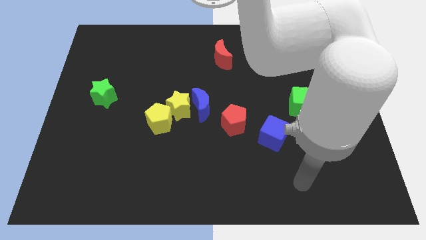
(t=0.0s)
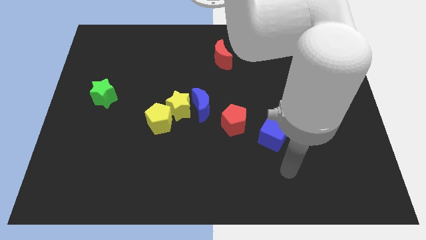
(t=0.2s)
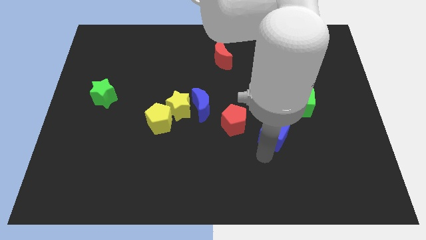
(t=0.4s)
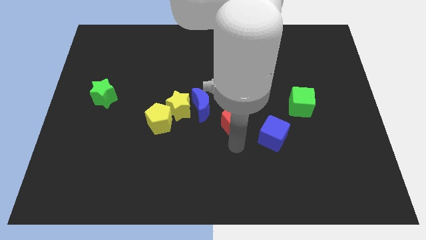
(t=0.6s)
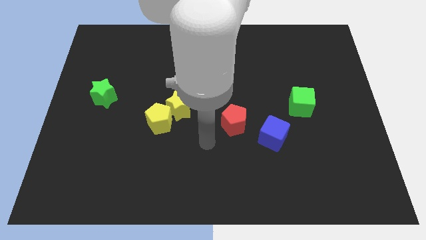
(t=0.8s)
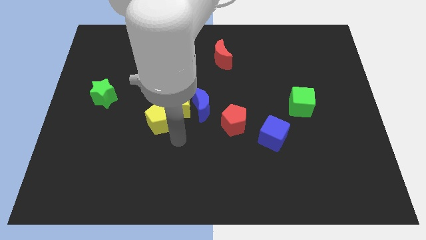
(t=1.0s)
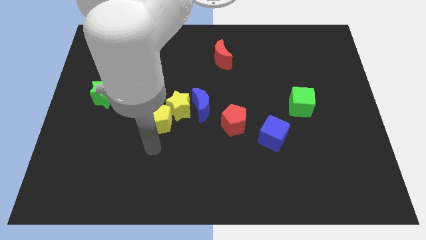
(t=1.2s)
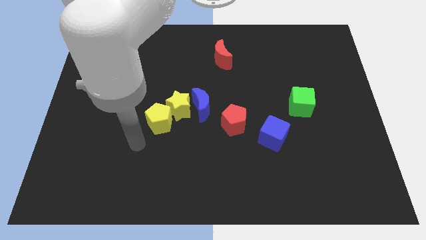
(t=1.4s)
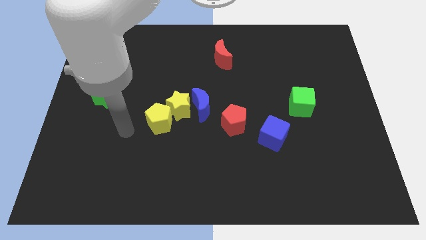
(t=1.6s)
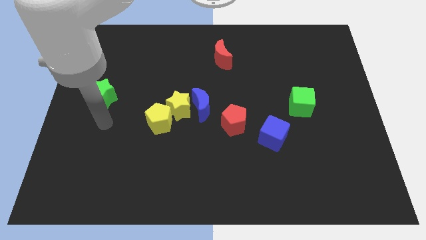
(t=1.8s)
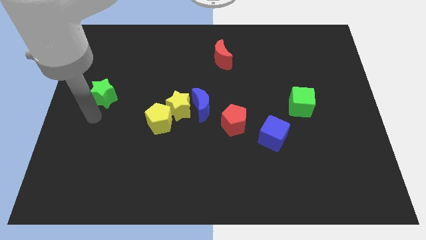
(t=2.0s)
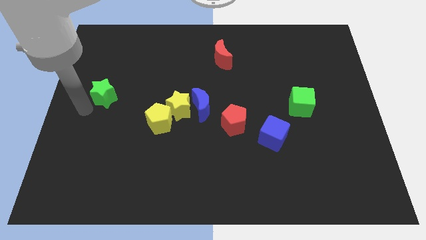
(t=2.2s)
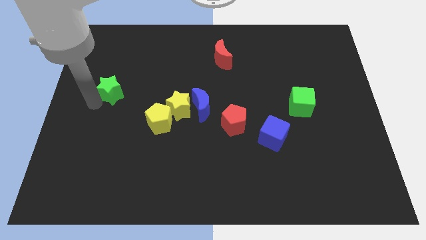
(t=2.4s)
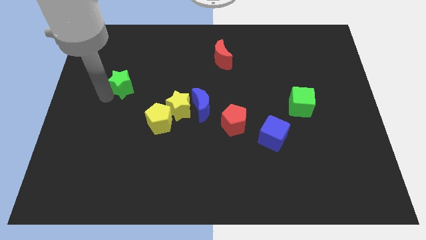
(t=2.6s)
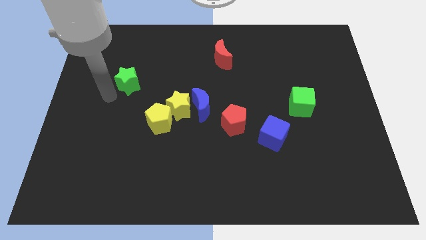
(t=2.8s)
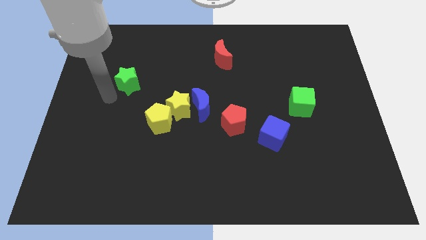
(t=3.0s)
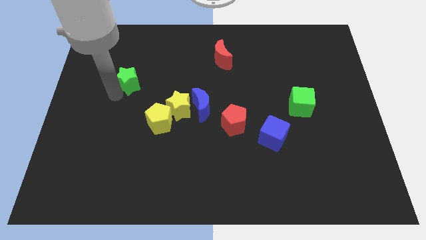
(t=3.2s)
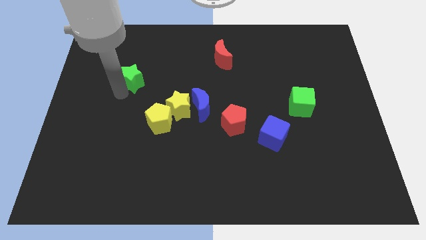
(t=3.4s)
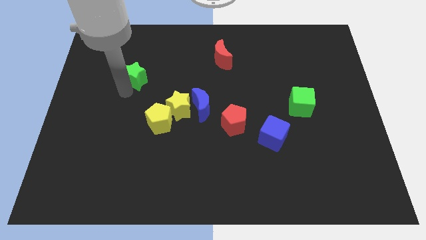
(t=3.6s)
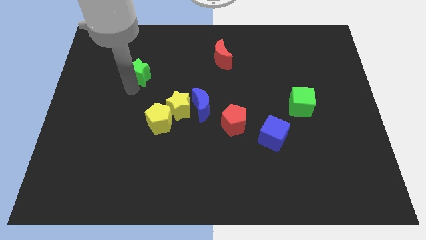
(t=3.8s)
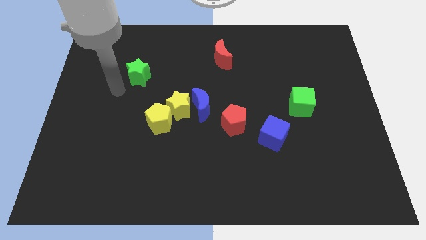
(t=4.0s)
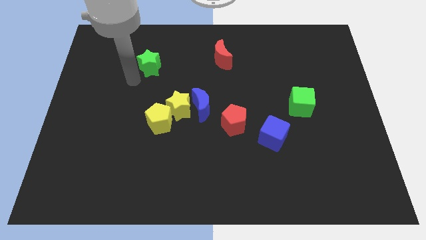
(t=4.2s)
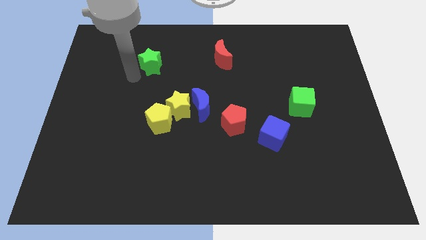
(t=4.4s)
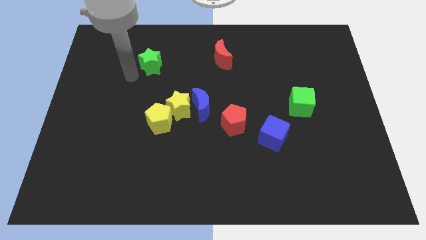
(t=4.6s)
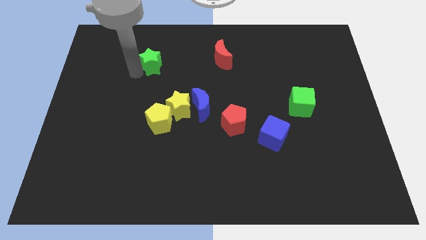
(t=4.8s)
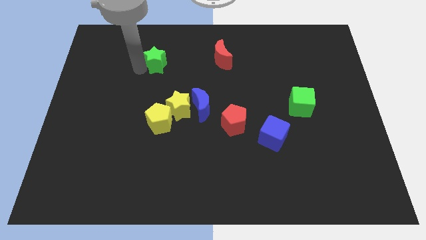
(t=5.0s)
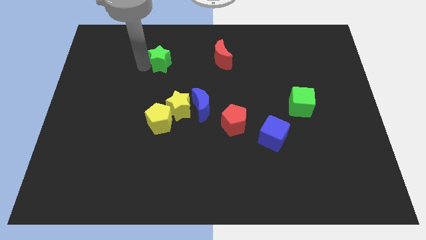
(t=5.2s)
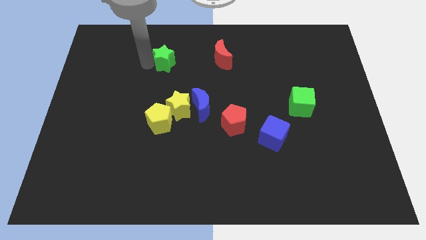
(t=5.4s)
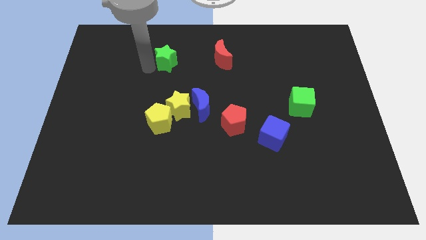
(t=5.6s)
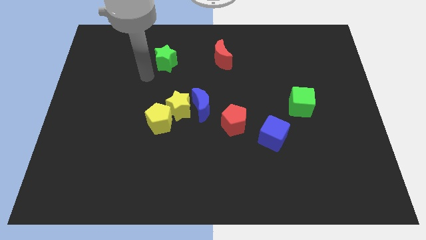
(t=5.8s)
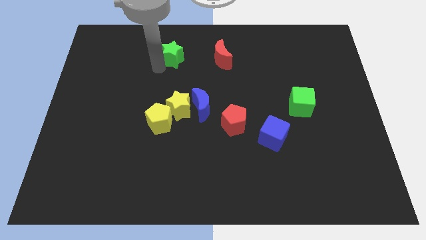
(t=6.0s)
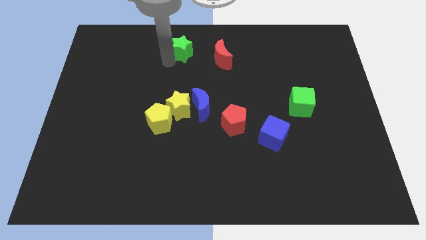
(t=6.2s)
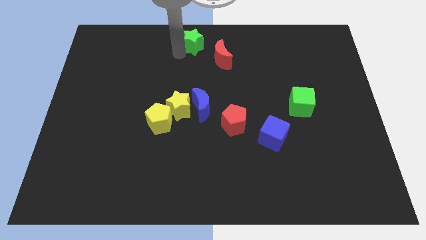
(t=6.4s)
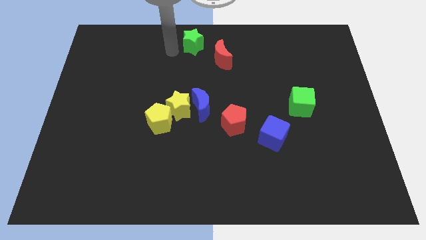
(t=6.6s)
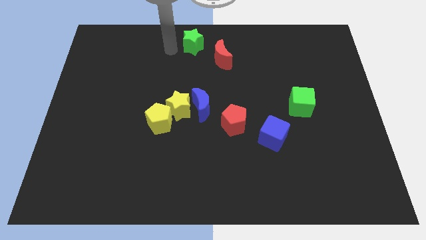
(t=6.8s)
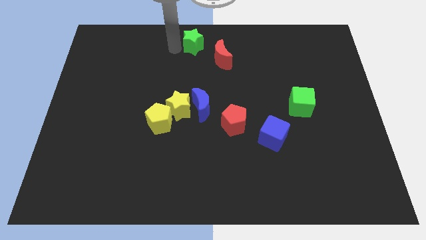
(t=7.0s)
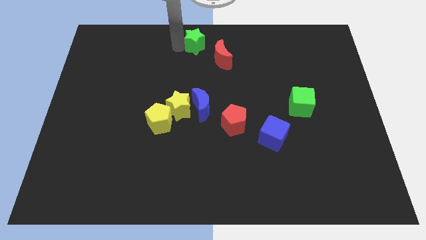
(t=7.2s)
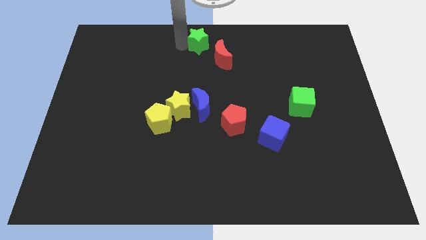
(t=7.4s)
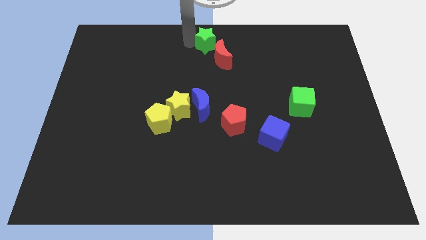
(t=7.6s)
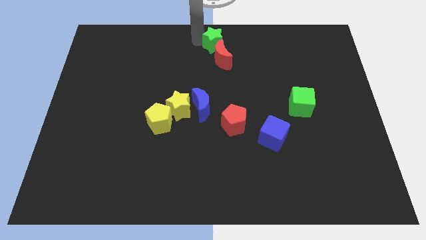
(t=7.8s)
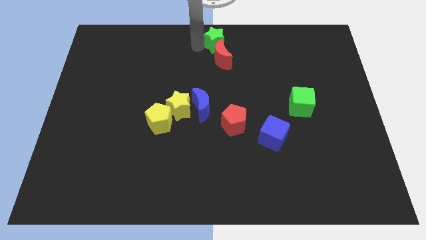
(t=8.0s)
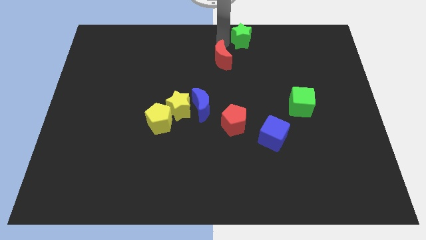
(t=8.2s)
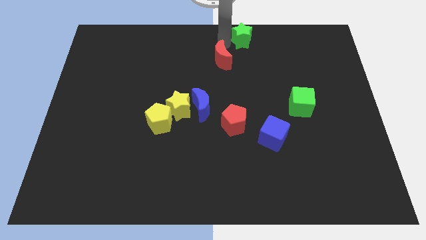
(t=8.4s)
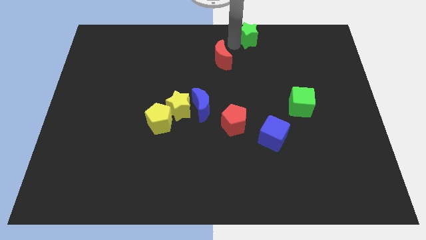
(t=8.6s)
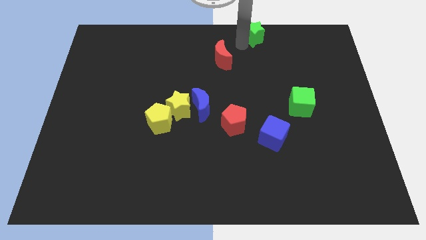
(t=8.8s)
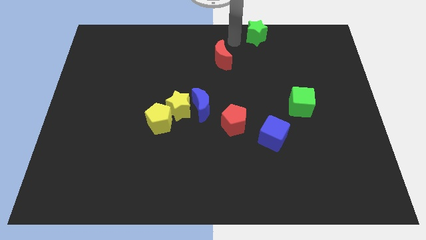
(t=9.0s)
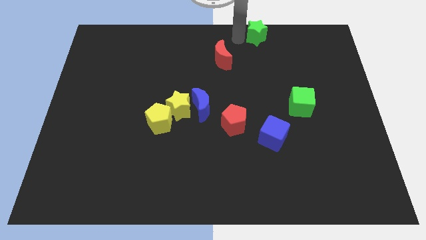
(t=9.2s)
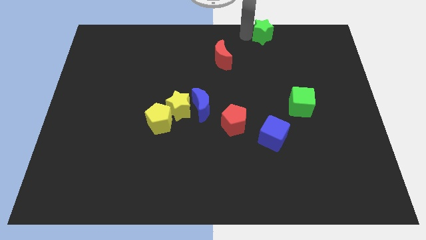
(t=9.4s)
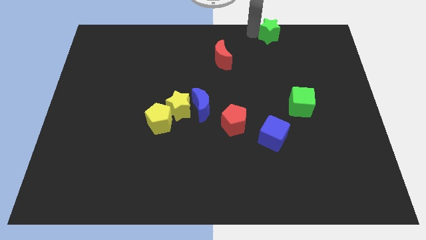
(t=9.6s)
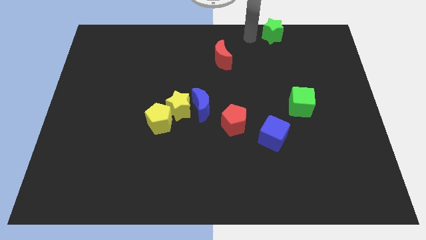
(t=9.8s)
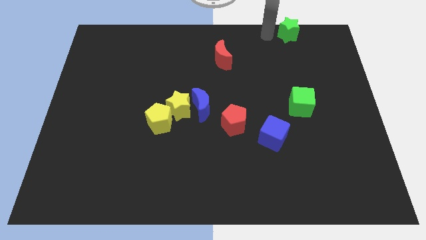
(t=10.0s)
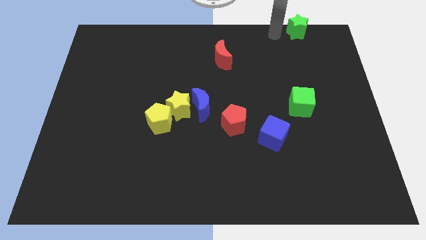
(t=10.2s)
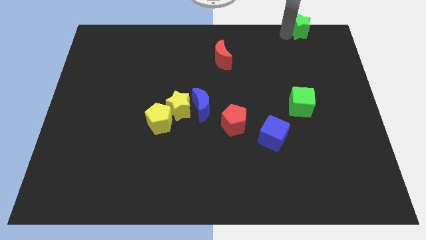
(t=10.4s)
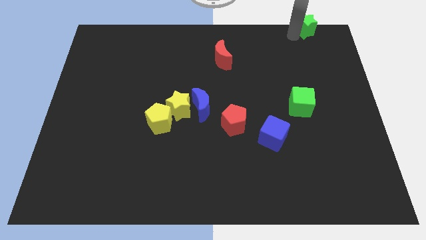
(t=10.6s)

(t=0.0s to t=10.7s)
slide the green star to the top right

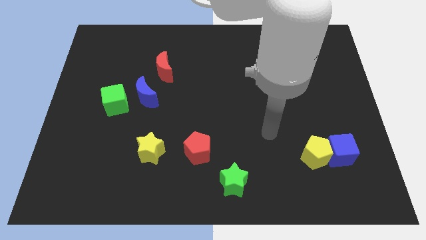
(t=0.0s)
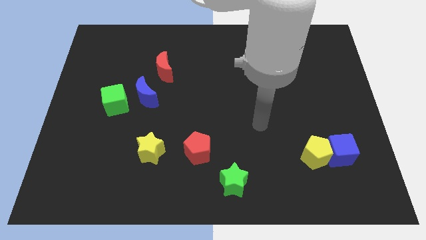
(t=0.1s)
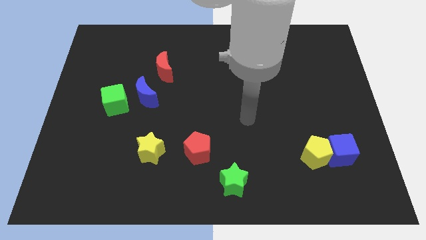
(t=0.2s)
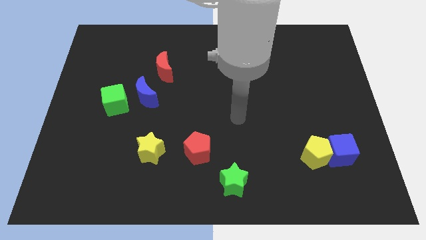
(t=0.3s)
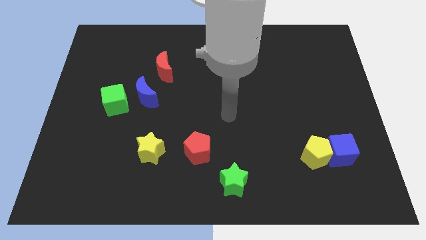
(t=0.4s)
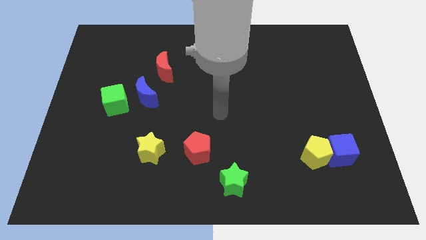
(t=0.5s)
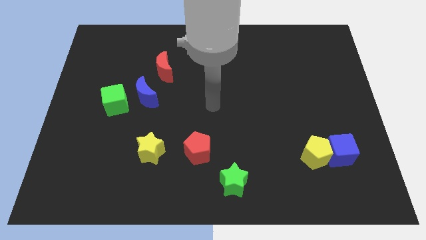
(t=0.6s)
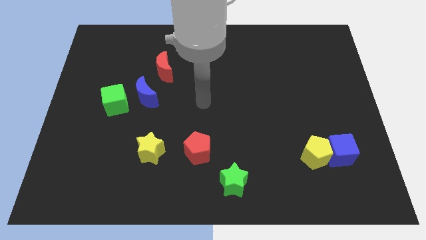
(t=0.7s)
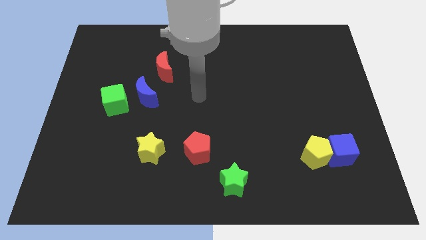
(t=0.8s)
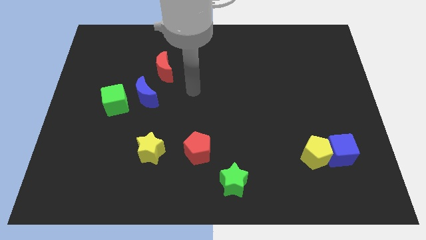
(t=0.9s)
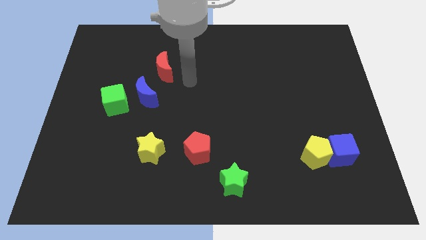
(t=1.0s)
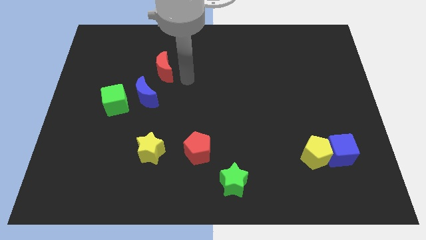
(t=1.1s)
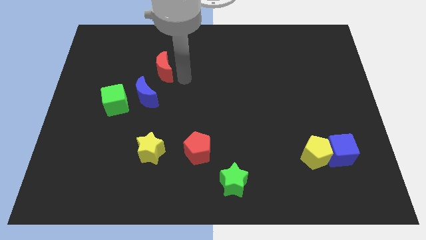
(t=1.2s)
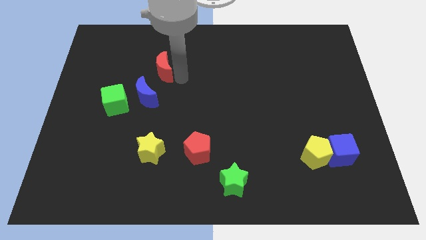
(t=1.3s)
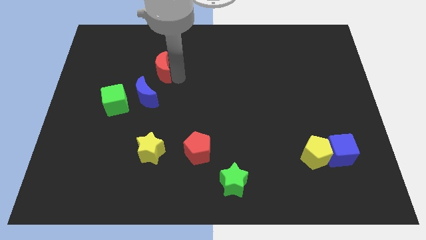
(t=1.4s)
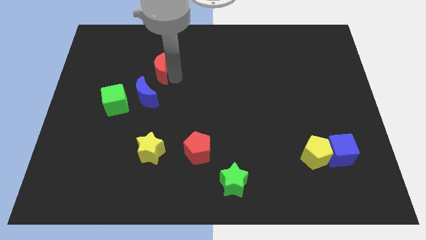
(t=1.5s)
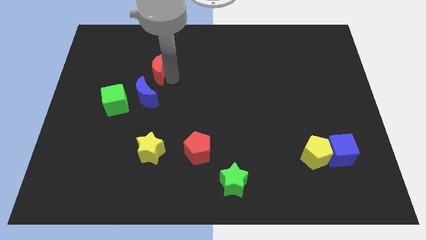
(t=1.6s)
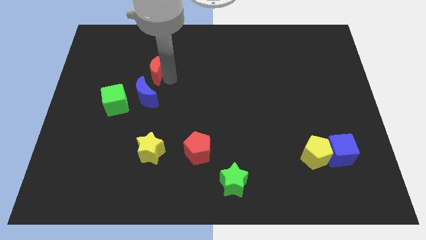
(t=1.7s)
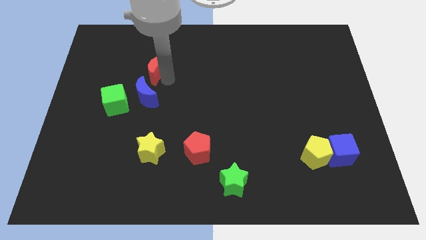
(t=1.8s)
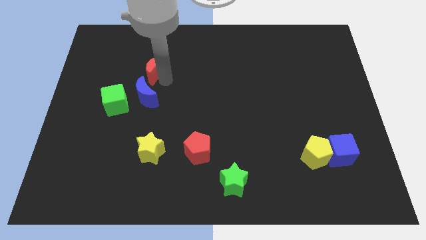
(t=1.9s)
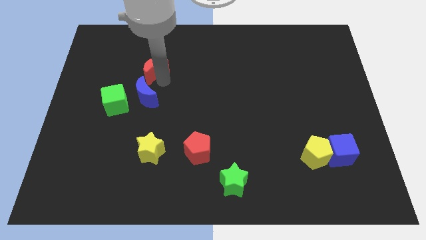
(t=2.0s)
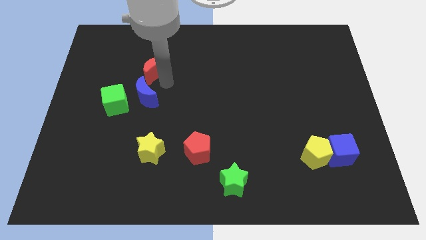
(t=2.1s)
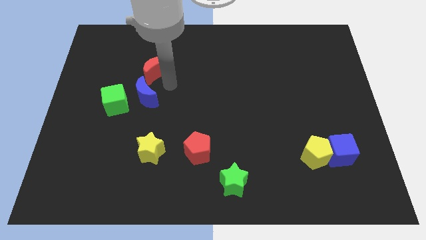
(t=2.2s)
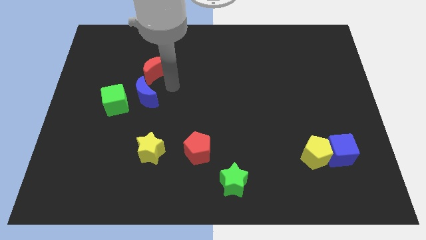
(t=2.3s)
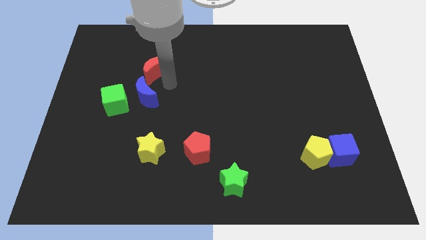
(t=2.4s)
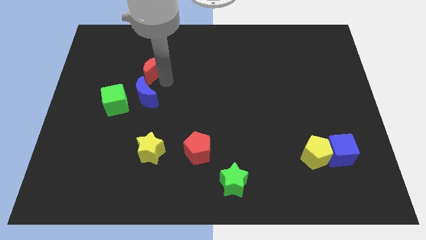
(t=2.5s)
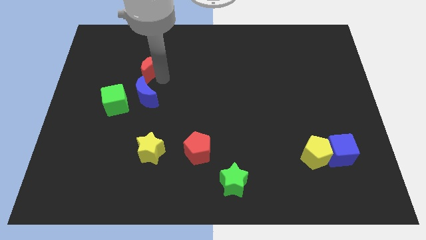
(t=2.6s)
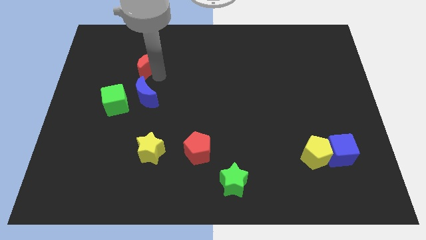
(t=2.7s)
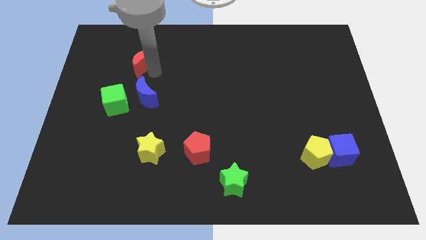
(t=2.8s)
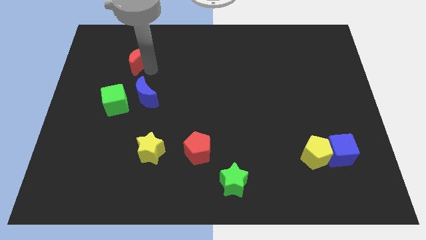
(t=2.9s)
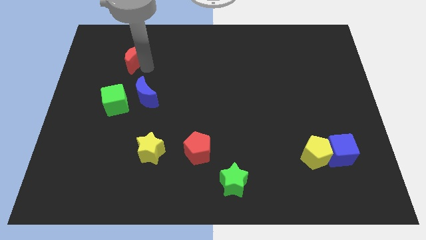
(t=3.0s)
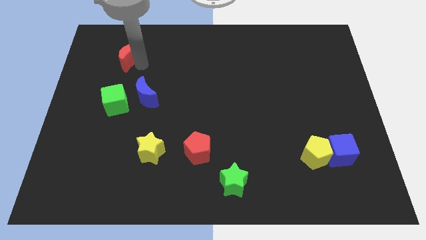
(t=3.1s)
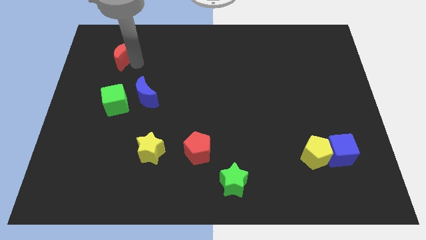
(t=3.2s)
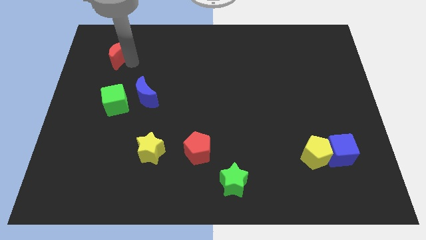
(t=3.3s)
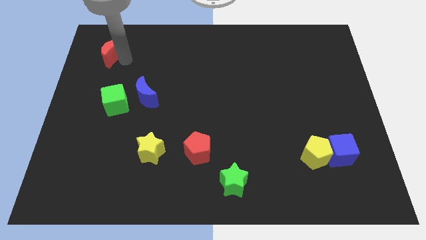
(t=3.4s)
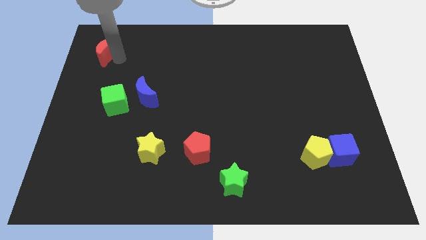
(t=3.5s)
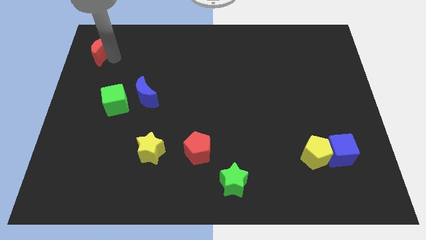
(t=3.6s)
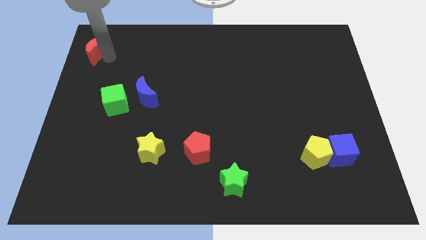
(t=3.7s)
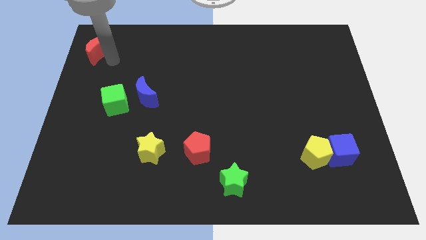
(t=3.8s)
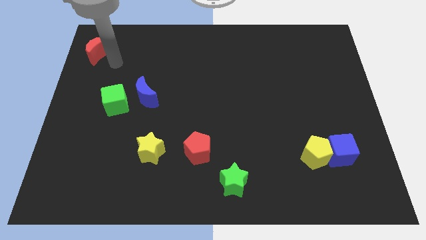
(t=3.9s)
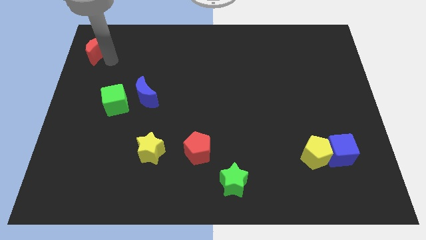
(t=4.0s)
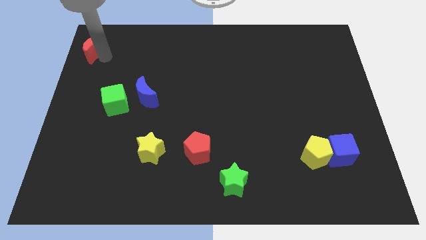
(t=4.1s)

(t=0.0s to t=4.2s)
put the red moon to the top left of the board
